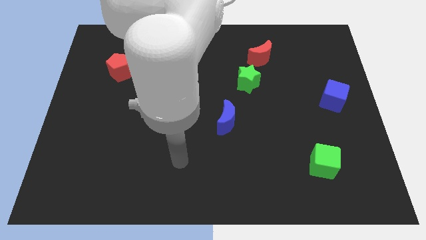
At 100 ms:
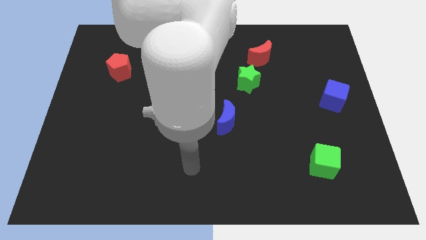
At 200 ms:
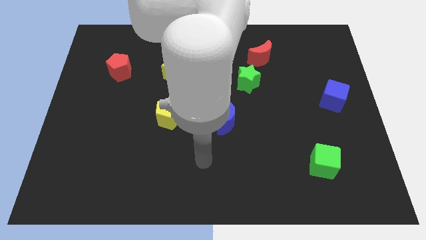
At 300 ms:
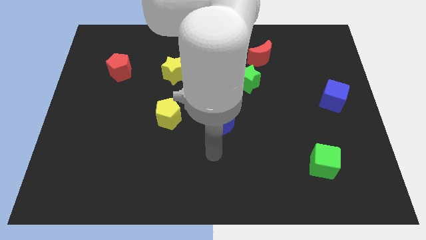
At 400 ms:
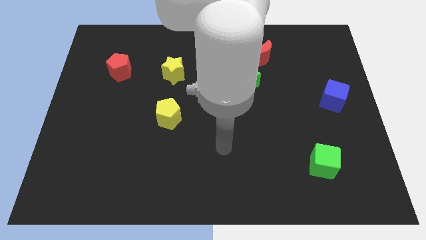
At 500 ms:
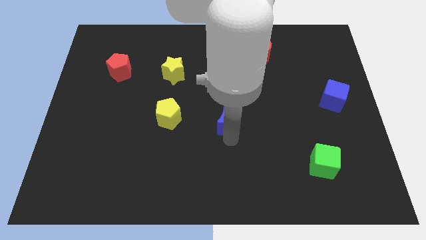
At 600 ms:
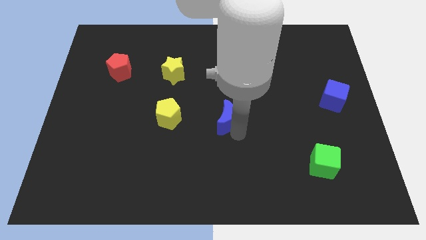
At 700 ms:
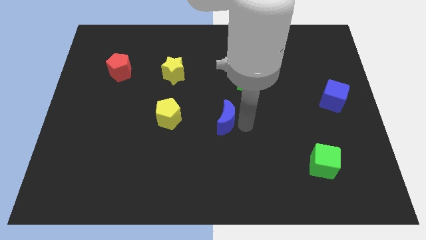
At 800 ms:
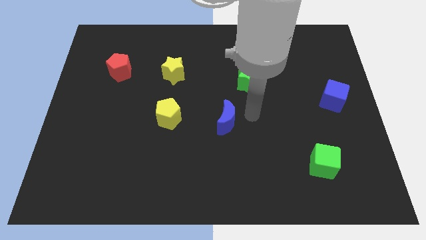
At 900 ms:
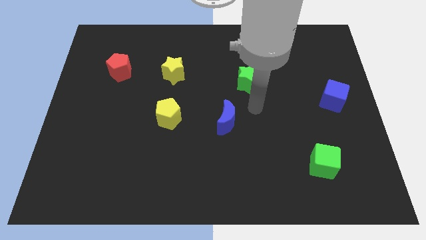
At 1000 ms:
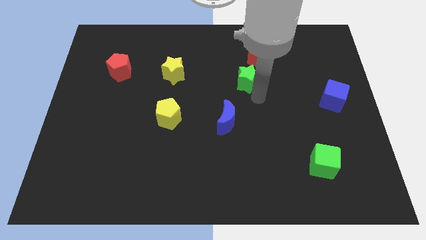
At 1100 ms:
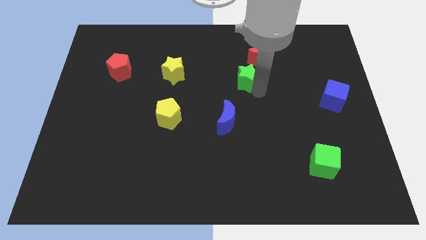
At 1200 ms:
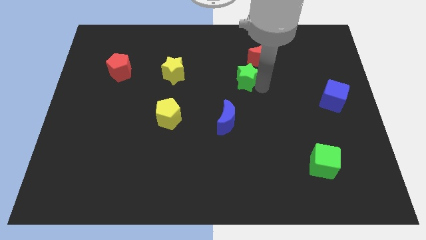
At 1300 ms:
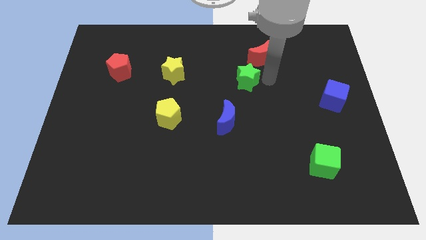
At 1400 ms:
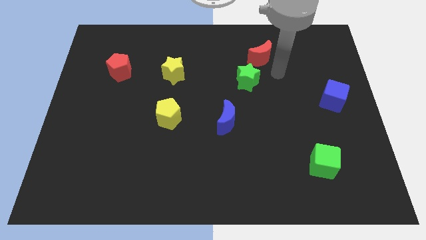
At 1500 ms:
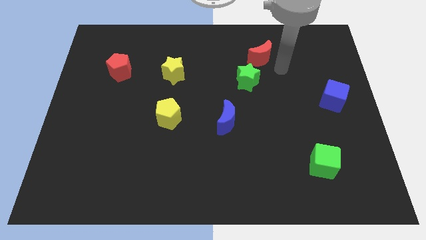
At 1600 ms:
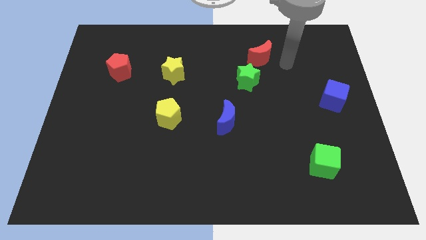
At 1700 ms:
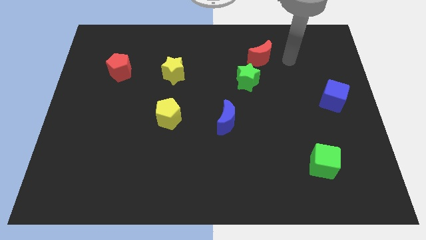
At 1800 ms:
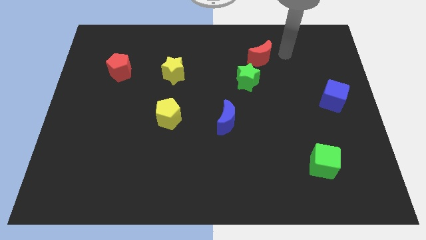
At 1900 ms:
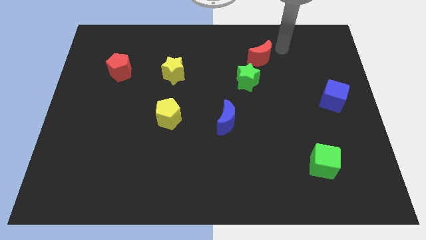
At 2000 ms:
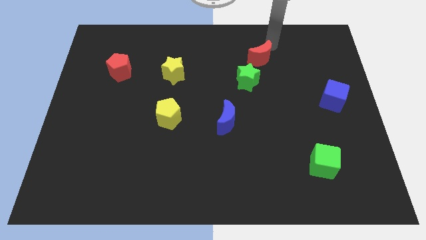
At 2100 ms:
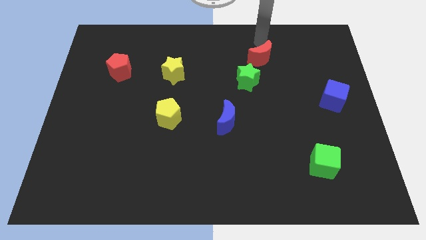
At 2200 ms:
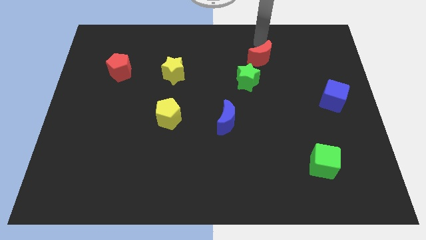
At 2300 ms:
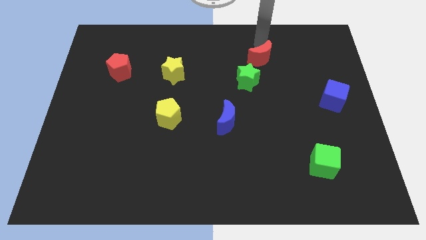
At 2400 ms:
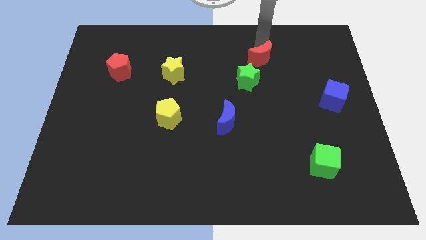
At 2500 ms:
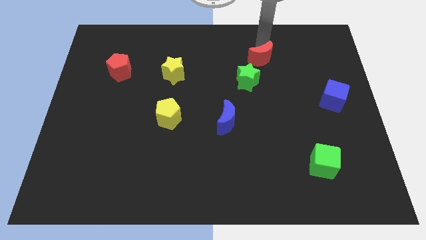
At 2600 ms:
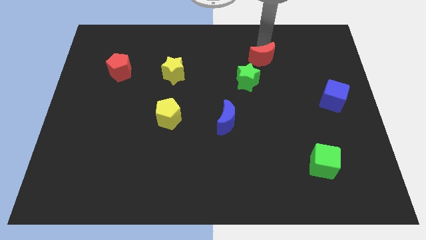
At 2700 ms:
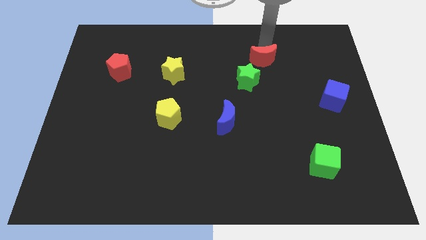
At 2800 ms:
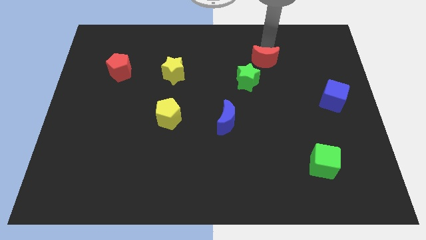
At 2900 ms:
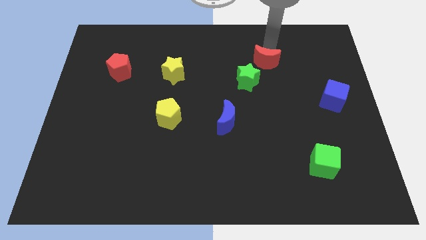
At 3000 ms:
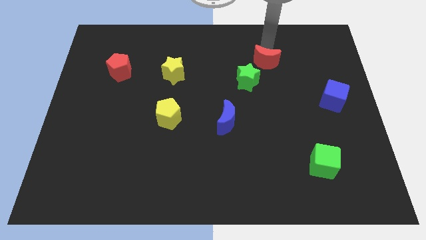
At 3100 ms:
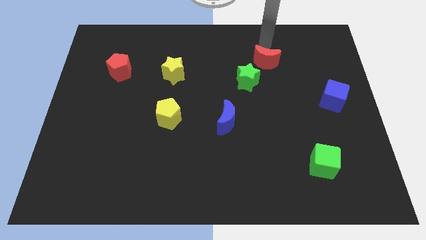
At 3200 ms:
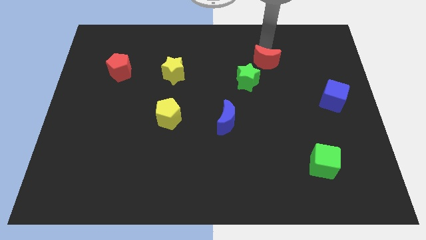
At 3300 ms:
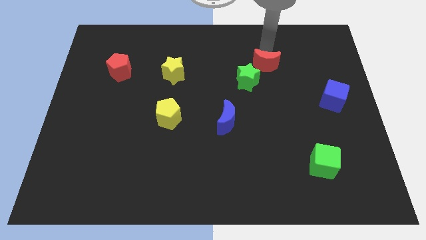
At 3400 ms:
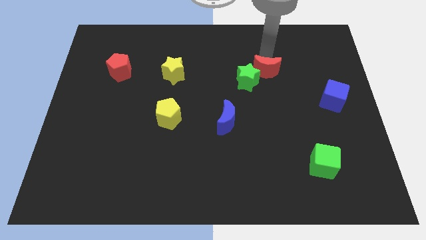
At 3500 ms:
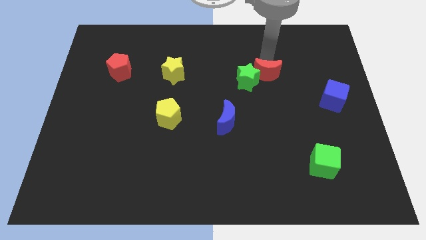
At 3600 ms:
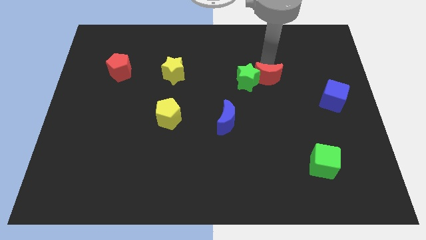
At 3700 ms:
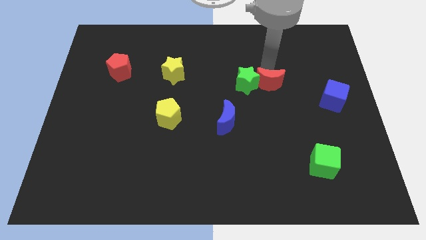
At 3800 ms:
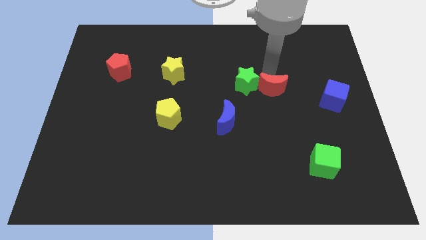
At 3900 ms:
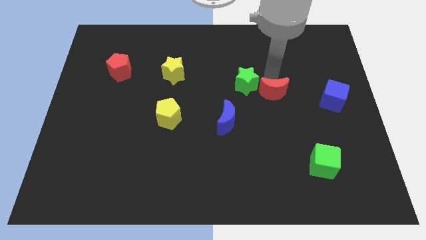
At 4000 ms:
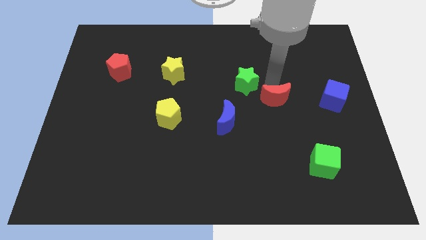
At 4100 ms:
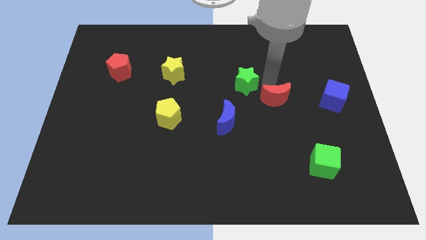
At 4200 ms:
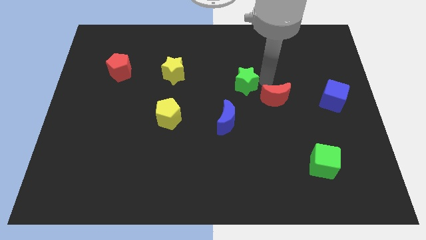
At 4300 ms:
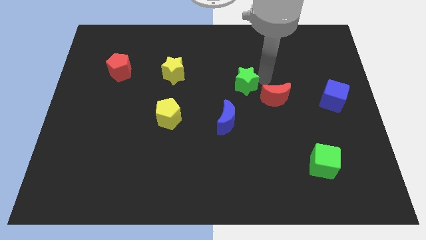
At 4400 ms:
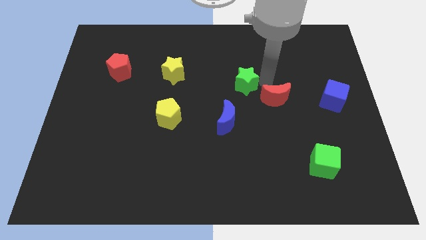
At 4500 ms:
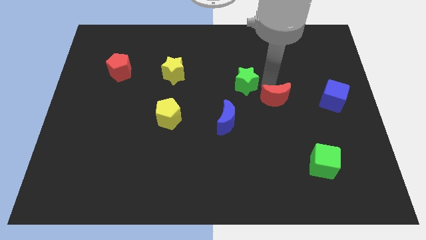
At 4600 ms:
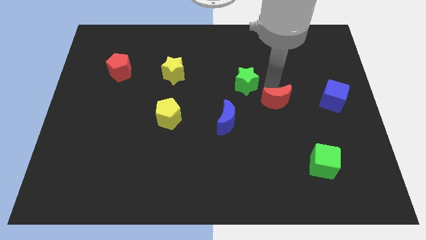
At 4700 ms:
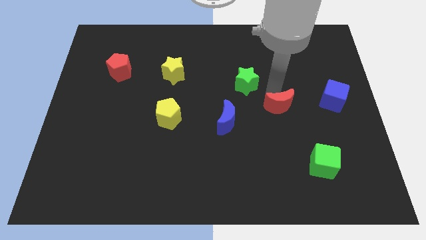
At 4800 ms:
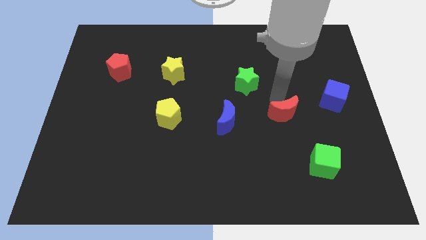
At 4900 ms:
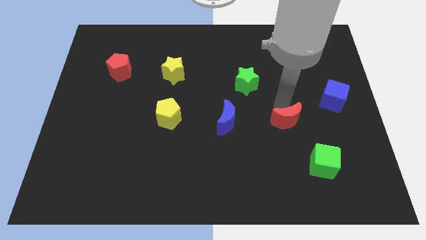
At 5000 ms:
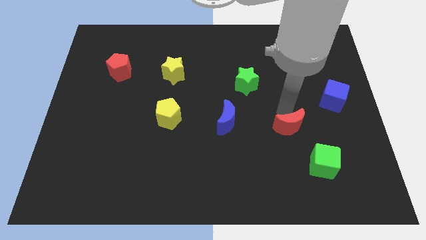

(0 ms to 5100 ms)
put the red moon diagonally up and to the left of the green cube

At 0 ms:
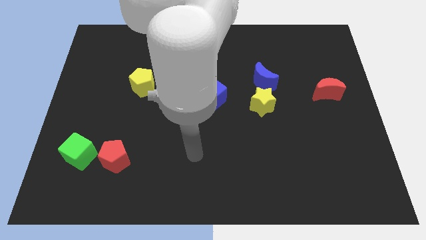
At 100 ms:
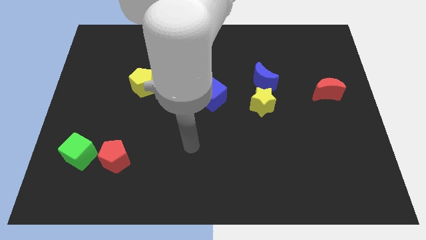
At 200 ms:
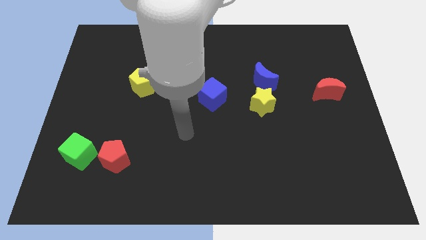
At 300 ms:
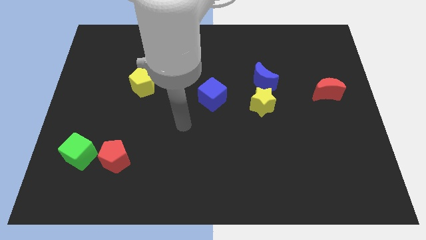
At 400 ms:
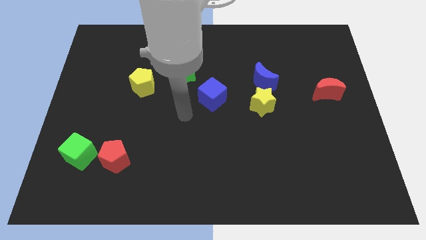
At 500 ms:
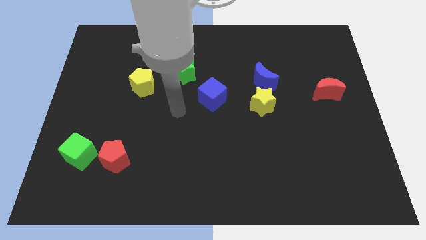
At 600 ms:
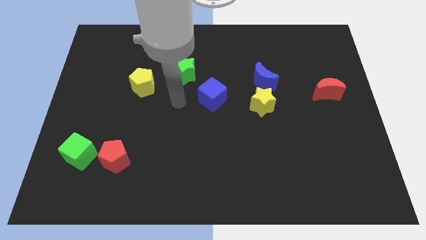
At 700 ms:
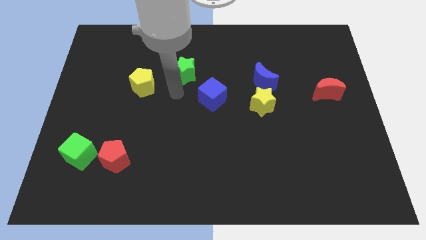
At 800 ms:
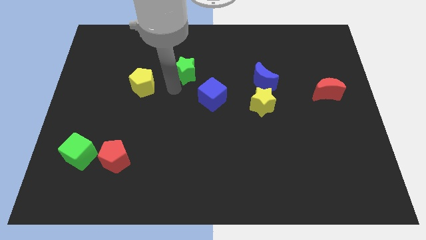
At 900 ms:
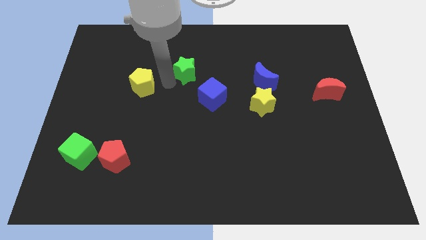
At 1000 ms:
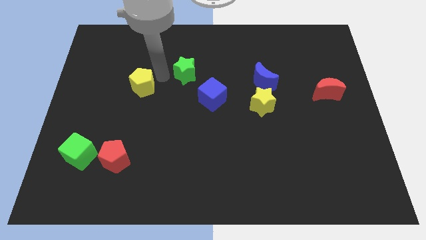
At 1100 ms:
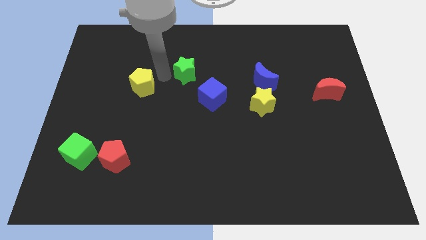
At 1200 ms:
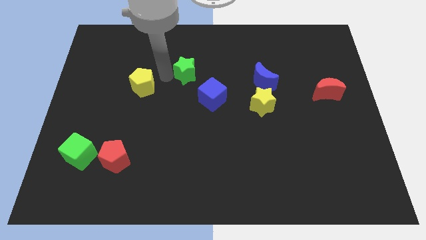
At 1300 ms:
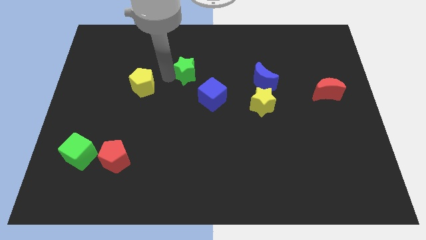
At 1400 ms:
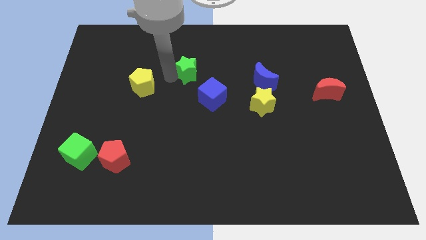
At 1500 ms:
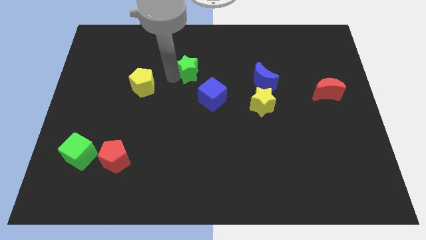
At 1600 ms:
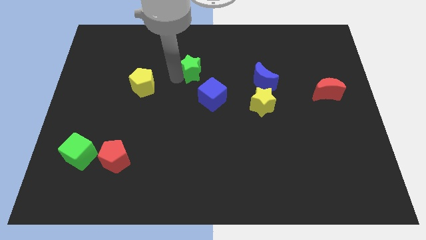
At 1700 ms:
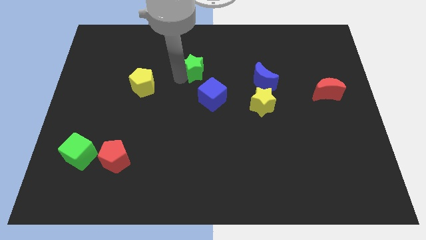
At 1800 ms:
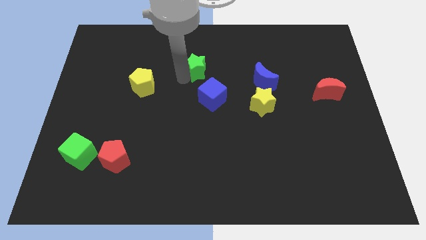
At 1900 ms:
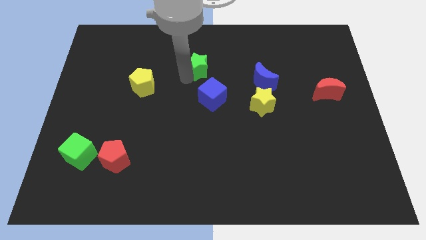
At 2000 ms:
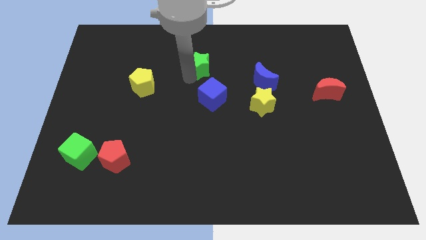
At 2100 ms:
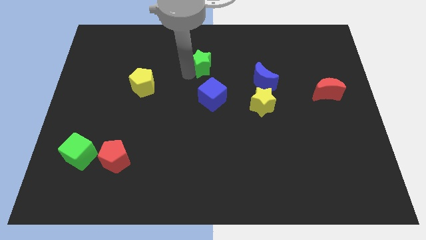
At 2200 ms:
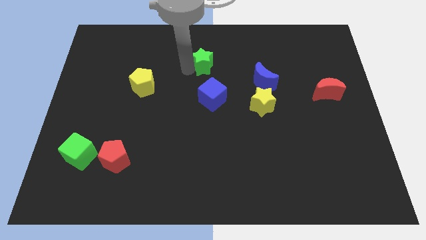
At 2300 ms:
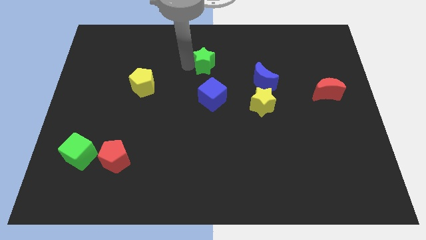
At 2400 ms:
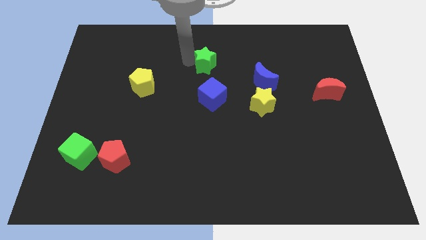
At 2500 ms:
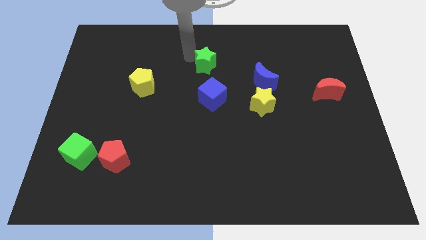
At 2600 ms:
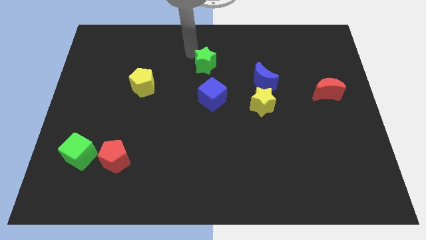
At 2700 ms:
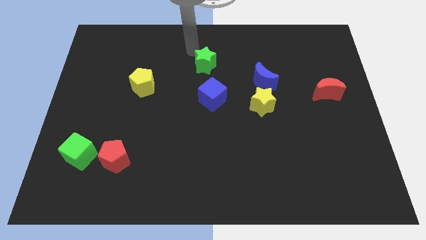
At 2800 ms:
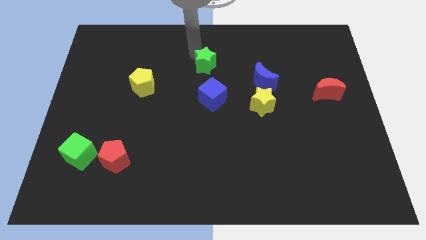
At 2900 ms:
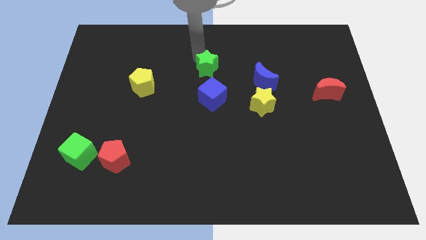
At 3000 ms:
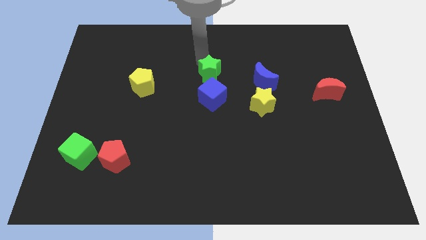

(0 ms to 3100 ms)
slide the green star to the left of the blue moon
